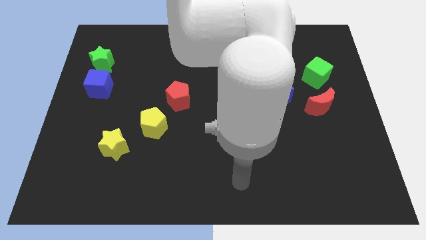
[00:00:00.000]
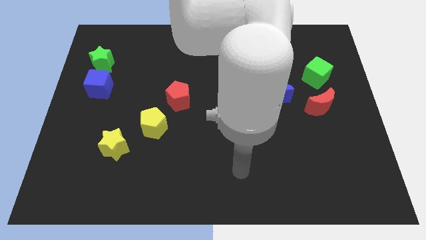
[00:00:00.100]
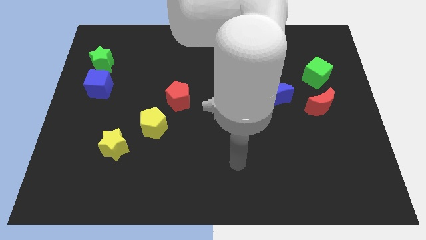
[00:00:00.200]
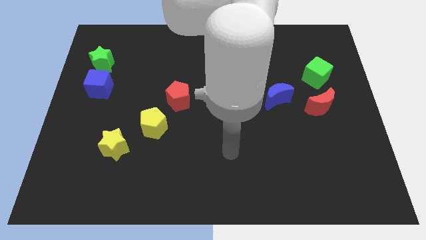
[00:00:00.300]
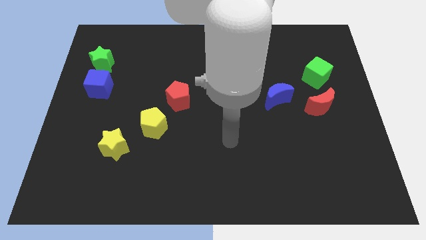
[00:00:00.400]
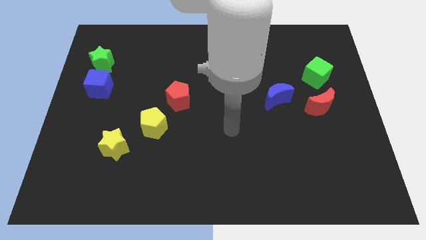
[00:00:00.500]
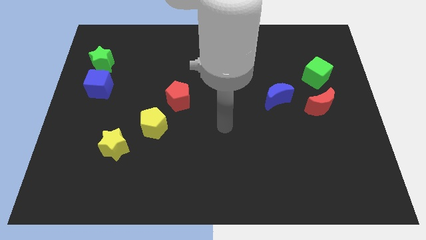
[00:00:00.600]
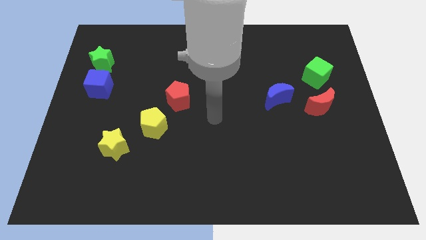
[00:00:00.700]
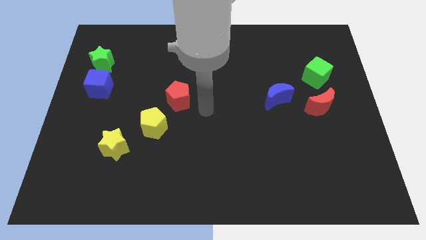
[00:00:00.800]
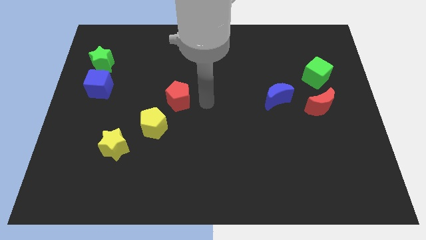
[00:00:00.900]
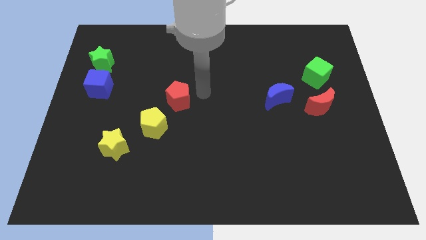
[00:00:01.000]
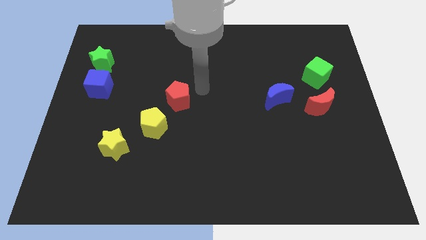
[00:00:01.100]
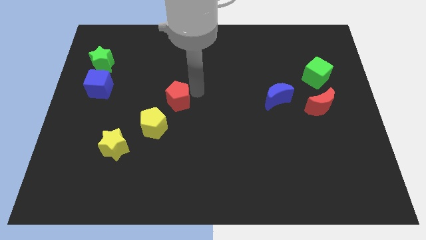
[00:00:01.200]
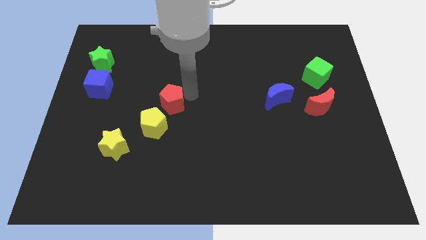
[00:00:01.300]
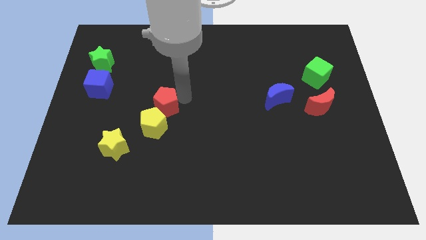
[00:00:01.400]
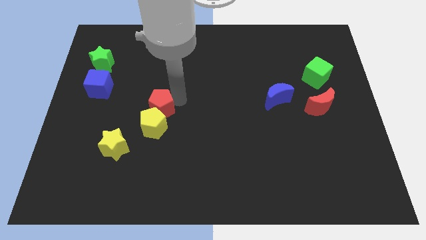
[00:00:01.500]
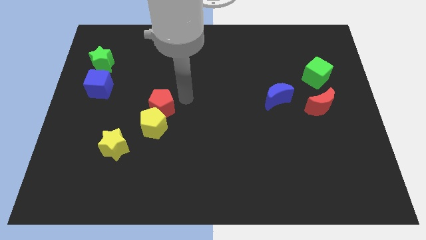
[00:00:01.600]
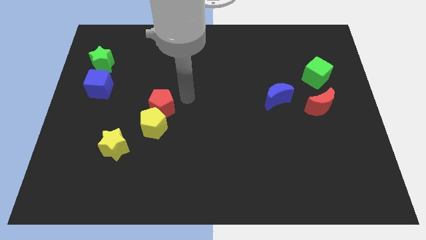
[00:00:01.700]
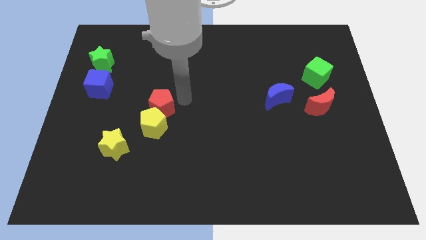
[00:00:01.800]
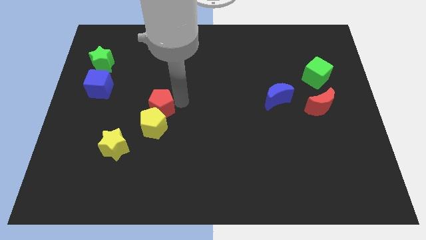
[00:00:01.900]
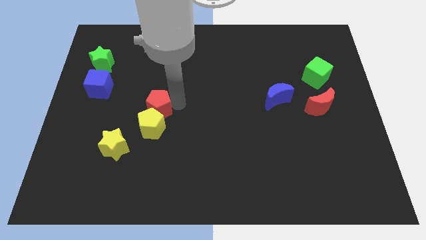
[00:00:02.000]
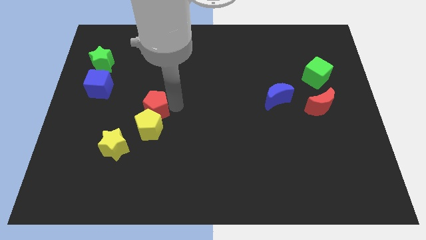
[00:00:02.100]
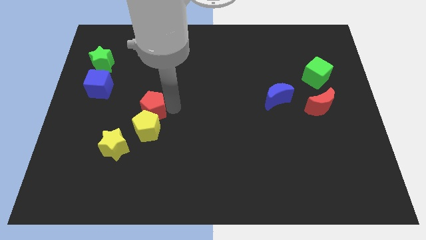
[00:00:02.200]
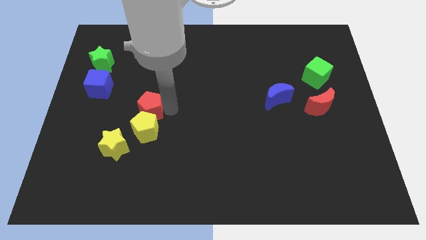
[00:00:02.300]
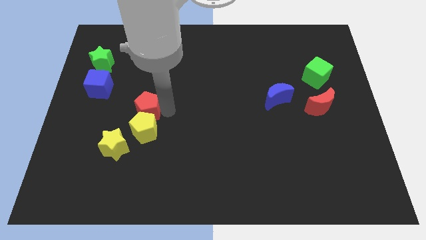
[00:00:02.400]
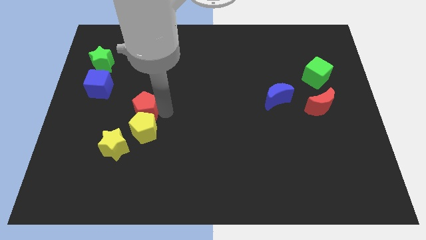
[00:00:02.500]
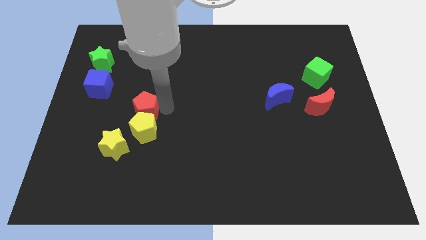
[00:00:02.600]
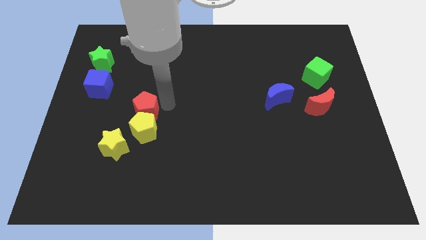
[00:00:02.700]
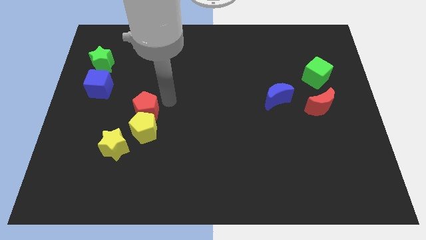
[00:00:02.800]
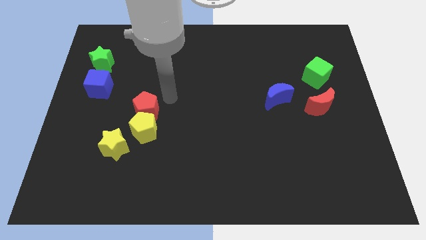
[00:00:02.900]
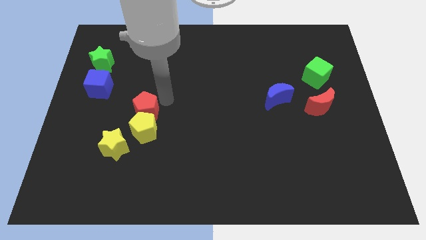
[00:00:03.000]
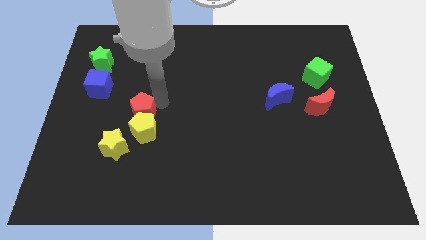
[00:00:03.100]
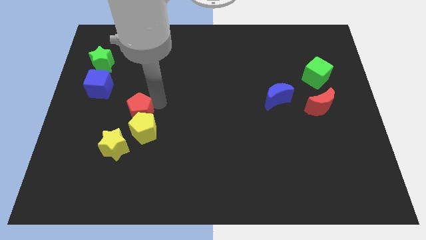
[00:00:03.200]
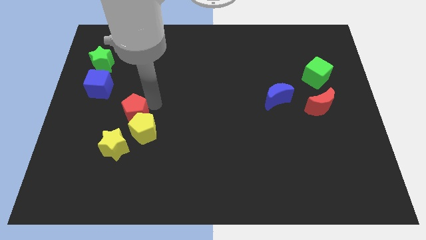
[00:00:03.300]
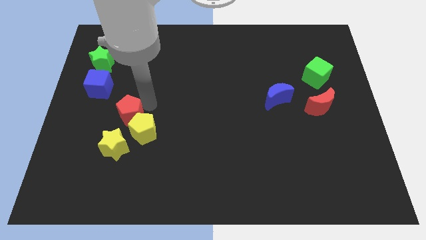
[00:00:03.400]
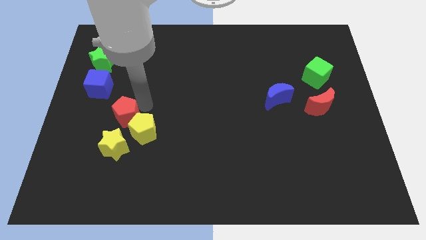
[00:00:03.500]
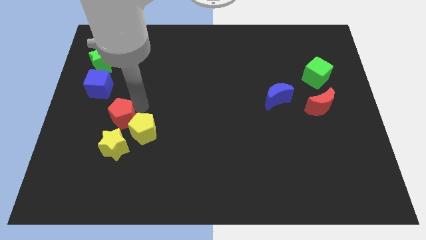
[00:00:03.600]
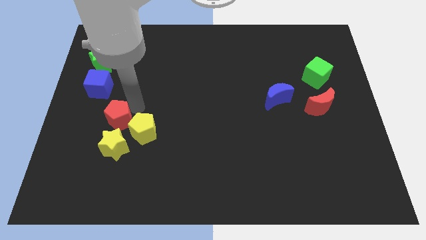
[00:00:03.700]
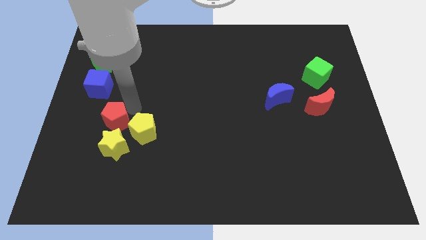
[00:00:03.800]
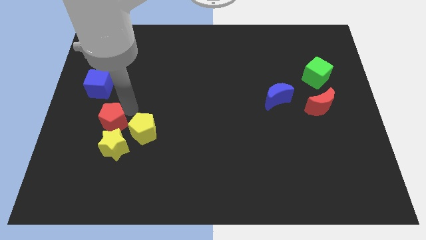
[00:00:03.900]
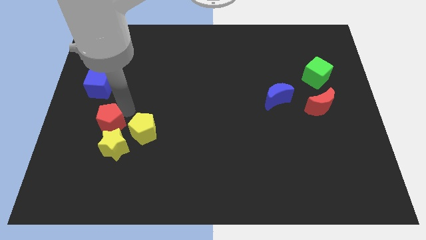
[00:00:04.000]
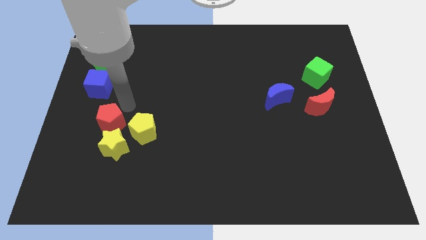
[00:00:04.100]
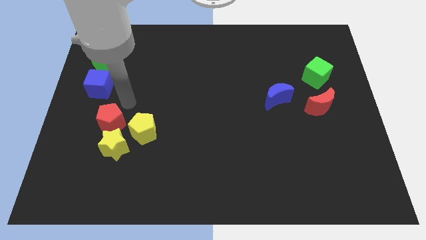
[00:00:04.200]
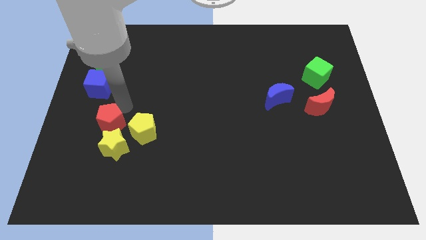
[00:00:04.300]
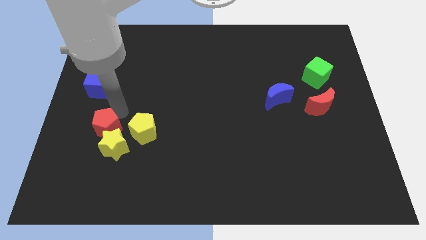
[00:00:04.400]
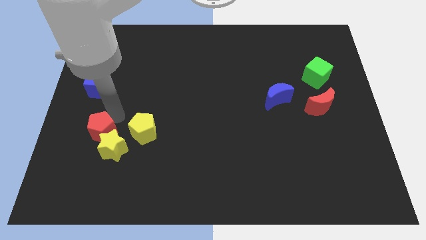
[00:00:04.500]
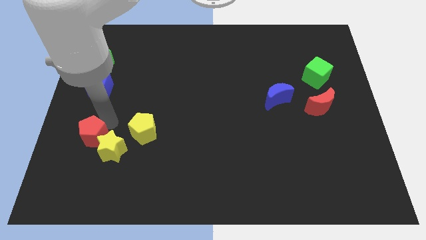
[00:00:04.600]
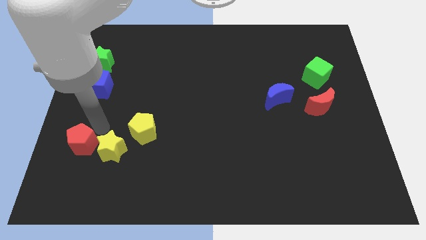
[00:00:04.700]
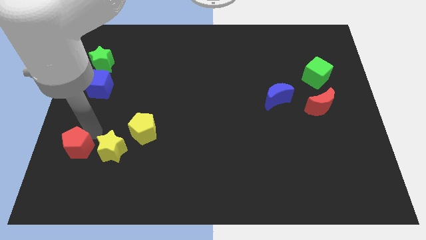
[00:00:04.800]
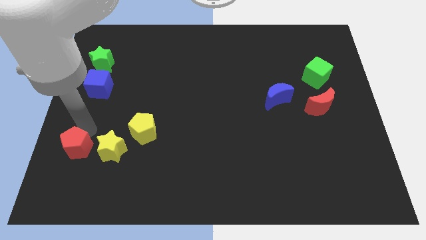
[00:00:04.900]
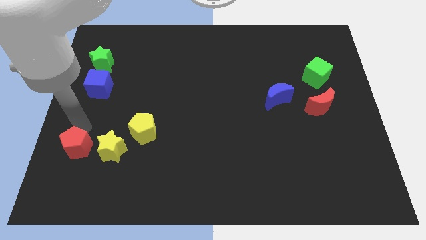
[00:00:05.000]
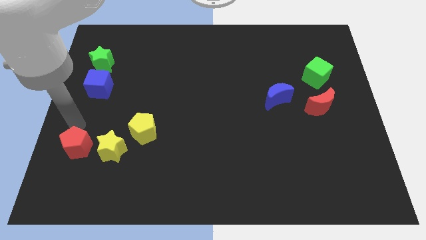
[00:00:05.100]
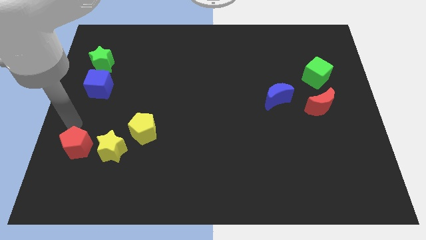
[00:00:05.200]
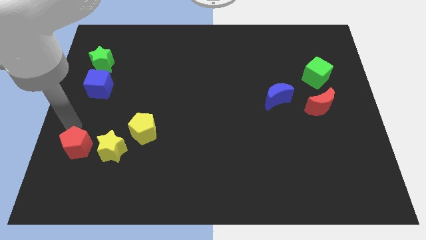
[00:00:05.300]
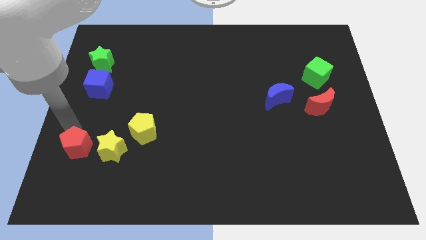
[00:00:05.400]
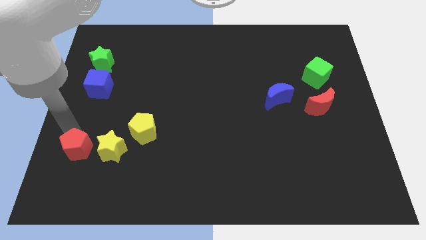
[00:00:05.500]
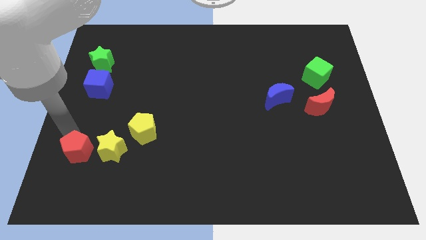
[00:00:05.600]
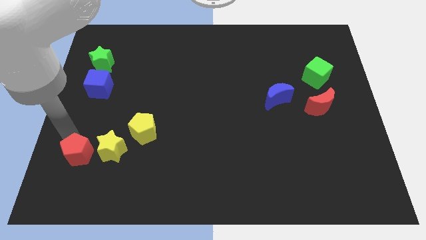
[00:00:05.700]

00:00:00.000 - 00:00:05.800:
slide the red pentagon diagonally down and to the left of the yellow star

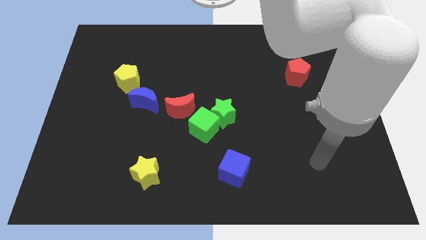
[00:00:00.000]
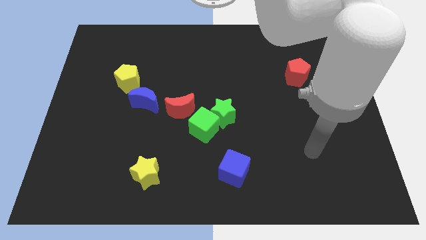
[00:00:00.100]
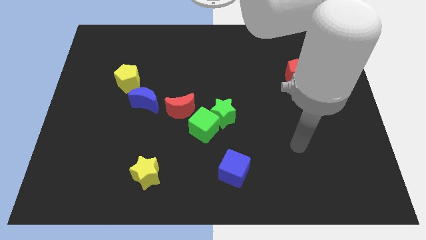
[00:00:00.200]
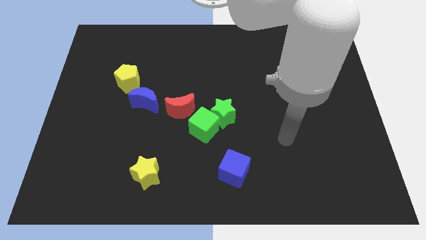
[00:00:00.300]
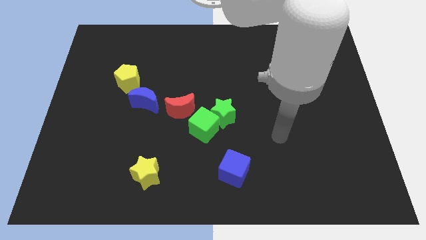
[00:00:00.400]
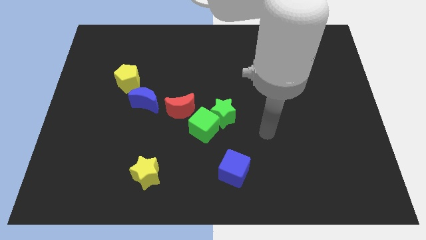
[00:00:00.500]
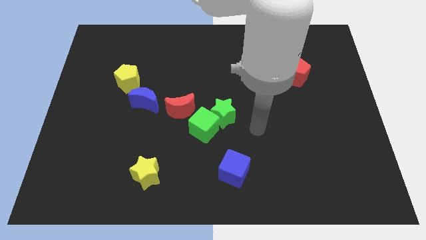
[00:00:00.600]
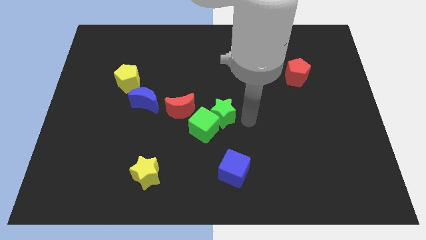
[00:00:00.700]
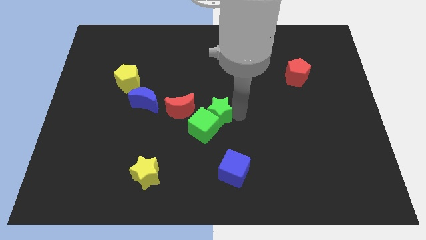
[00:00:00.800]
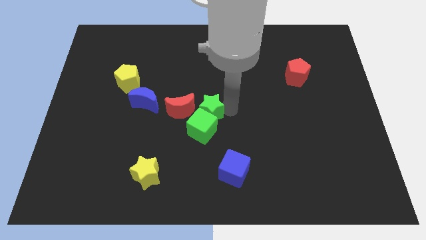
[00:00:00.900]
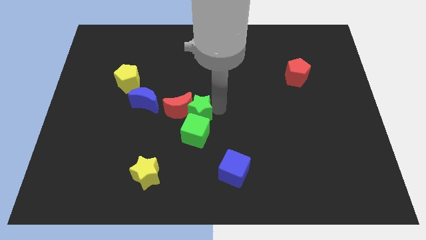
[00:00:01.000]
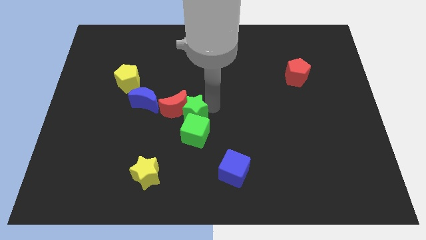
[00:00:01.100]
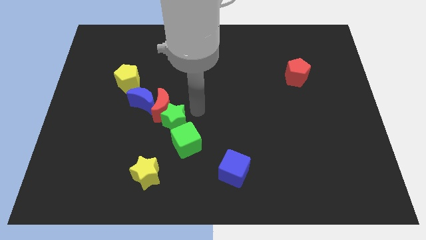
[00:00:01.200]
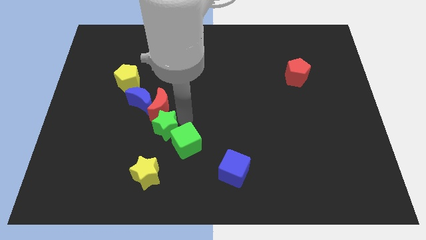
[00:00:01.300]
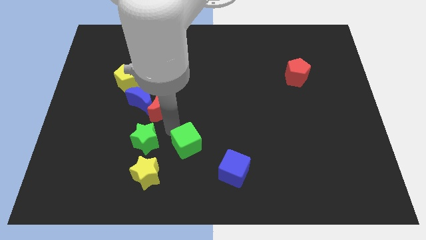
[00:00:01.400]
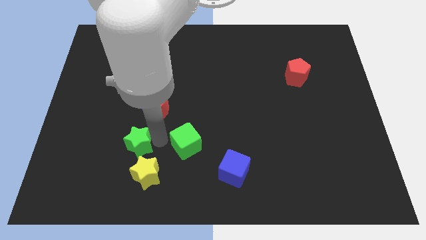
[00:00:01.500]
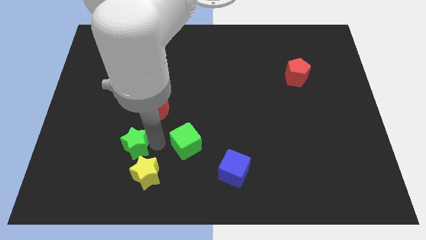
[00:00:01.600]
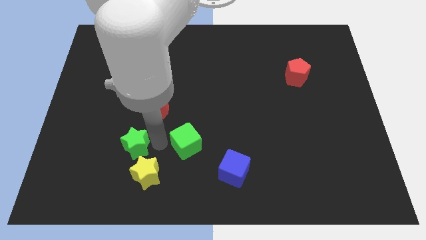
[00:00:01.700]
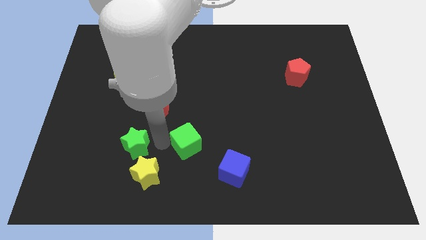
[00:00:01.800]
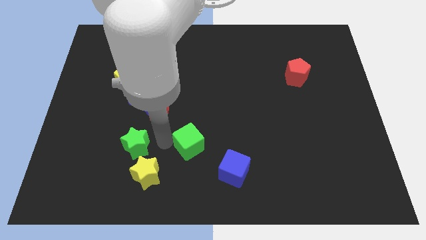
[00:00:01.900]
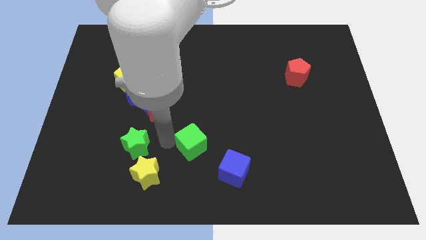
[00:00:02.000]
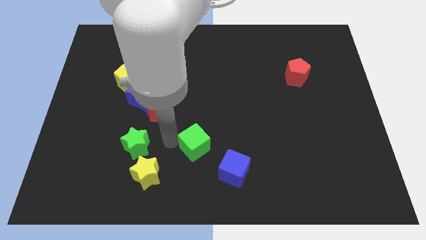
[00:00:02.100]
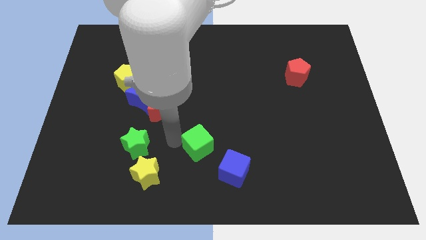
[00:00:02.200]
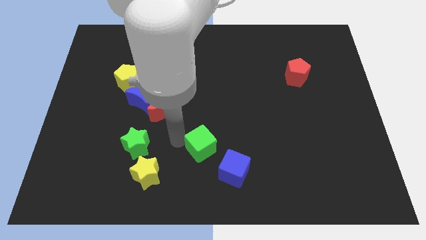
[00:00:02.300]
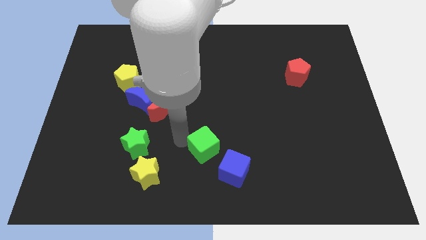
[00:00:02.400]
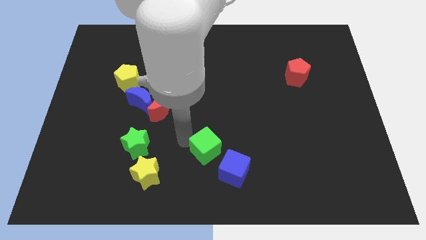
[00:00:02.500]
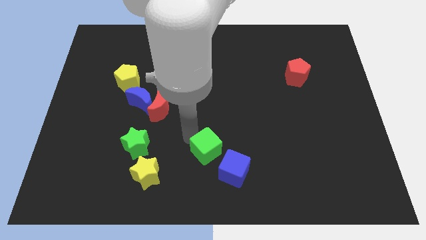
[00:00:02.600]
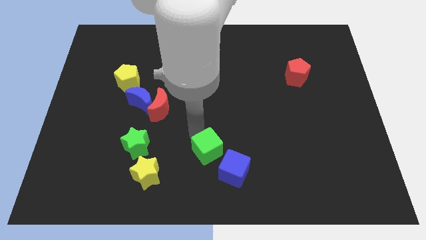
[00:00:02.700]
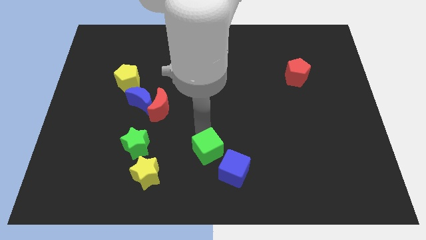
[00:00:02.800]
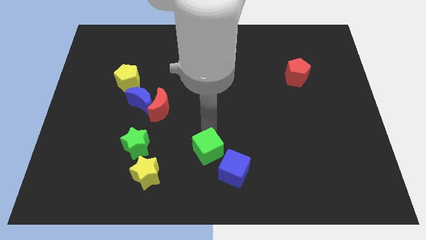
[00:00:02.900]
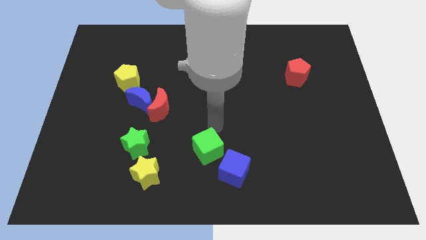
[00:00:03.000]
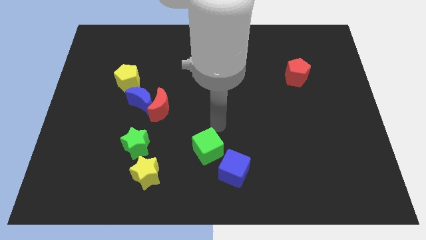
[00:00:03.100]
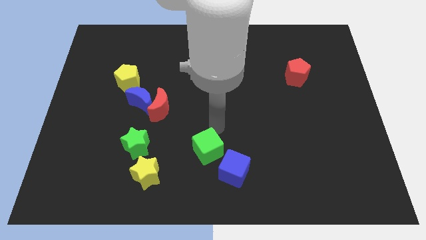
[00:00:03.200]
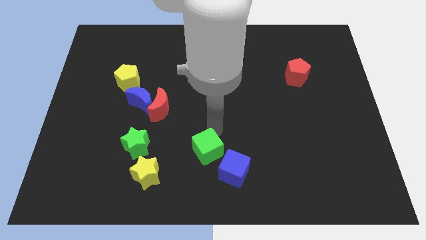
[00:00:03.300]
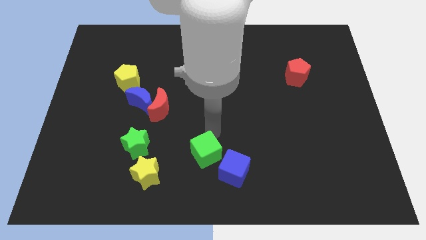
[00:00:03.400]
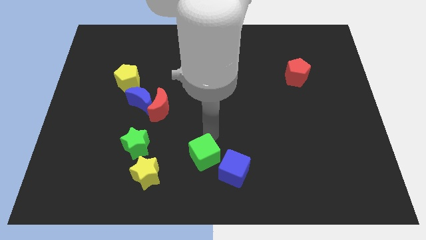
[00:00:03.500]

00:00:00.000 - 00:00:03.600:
slide the green cube right of the yellow star
